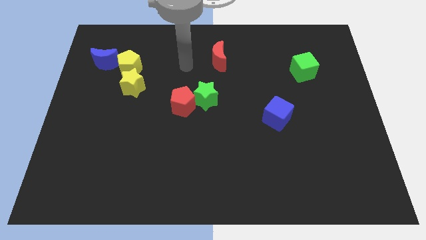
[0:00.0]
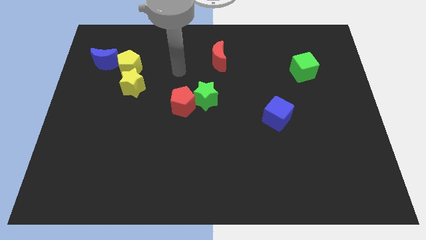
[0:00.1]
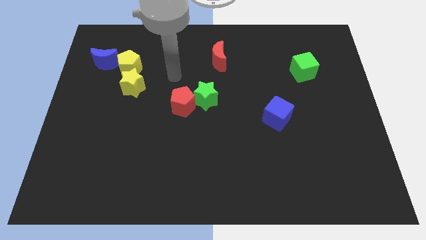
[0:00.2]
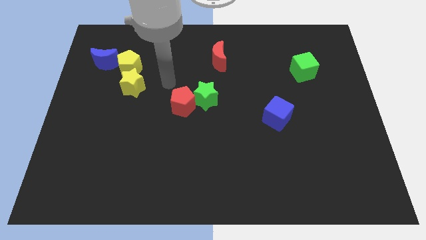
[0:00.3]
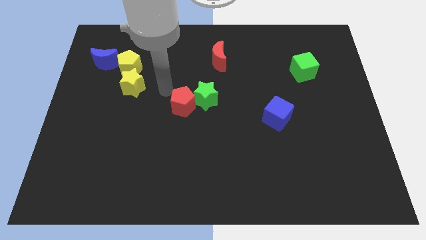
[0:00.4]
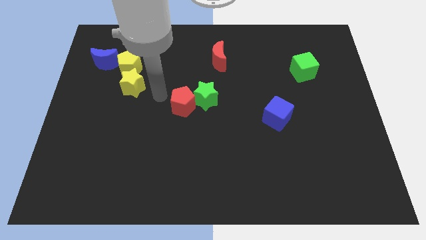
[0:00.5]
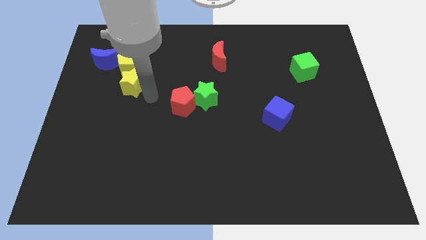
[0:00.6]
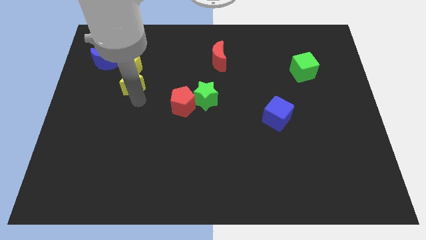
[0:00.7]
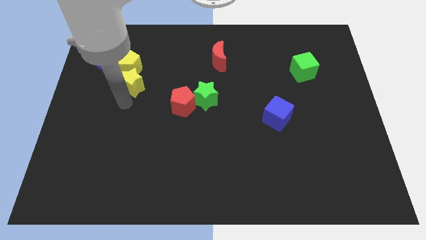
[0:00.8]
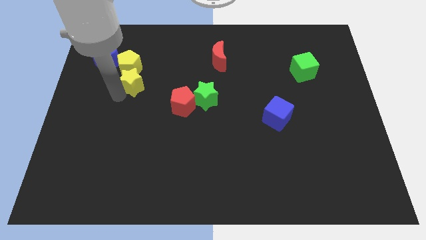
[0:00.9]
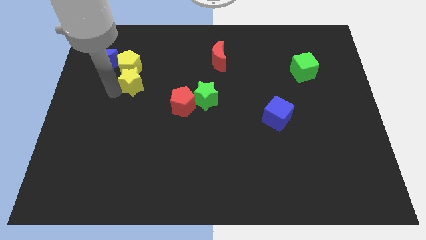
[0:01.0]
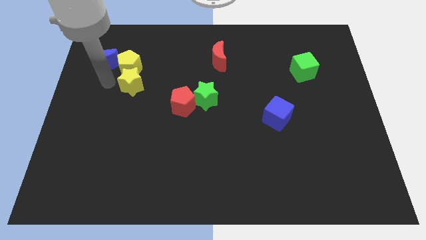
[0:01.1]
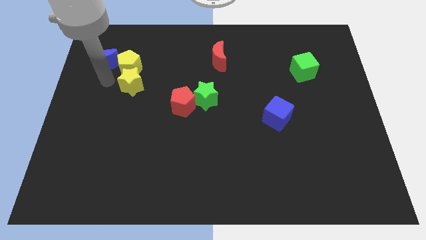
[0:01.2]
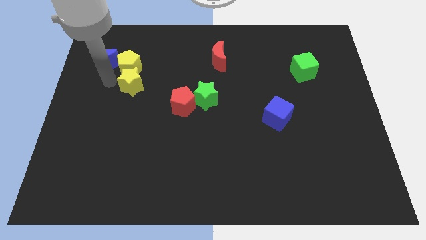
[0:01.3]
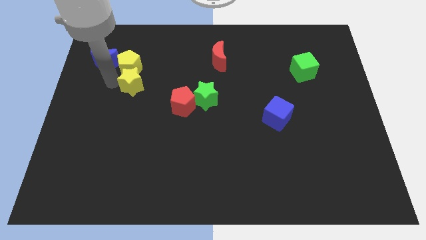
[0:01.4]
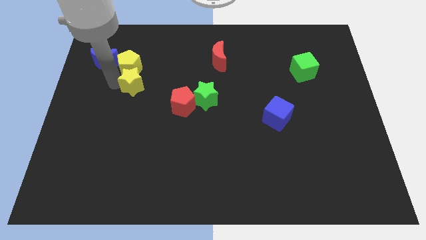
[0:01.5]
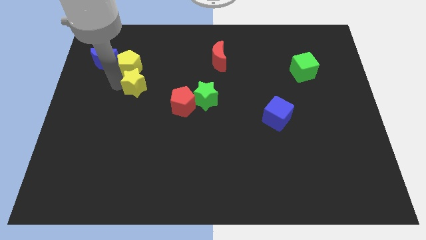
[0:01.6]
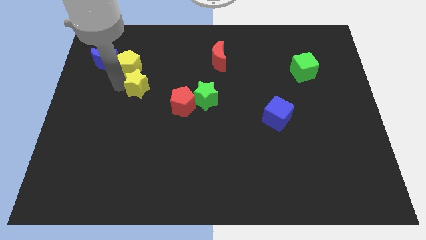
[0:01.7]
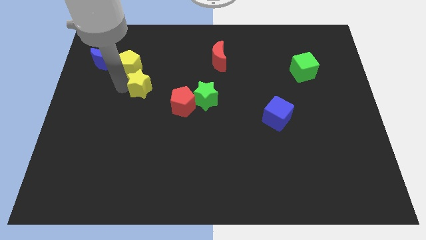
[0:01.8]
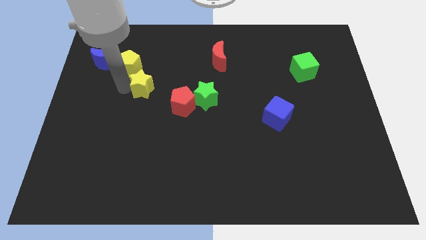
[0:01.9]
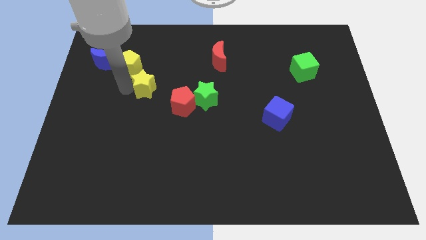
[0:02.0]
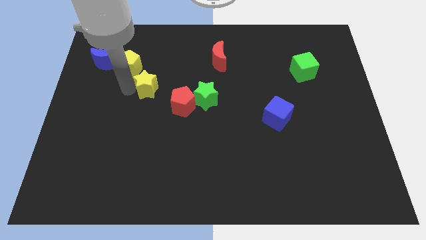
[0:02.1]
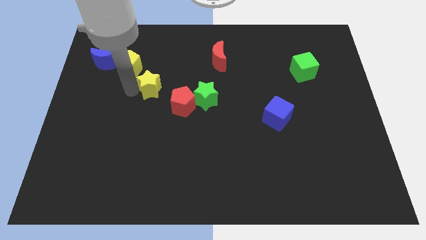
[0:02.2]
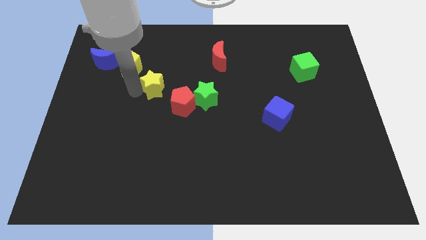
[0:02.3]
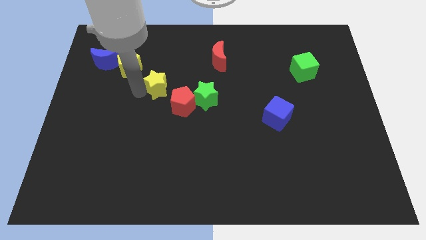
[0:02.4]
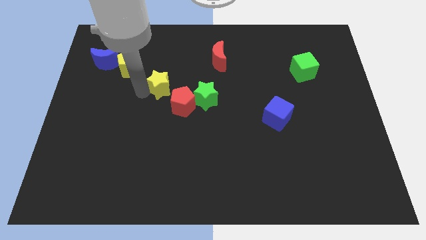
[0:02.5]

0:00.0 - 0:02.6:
move the yellow star right slightly

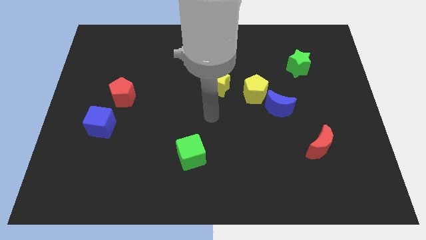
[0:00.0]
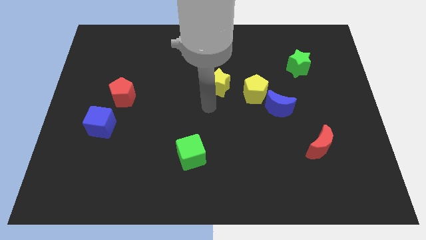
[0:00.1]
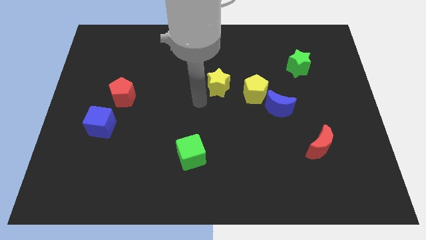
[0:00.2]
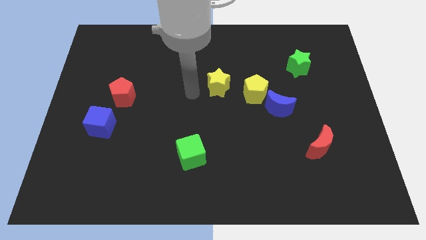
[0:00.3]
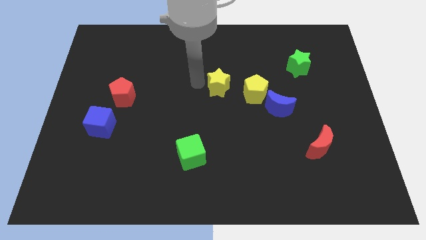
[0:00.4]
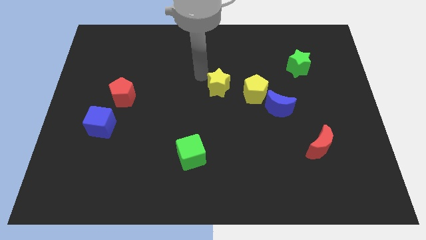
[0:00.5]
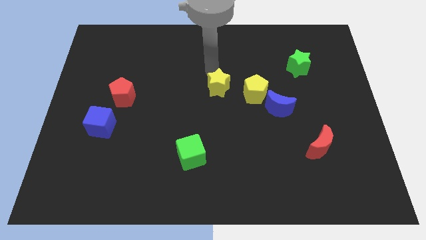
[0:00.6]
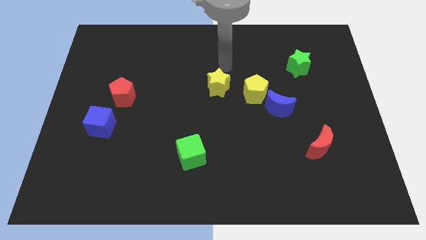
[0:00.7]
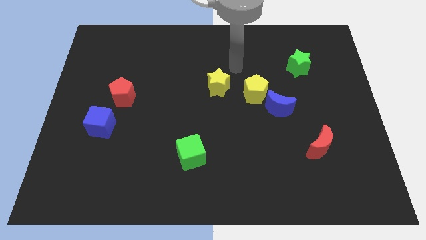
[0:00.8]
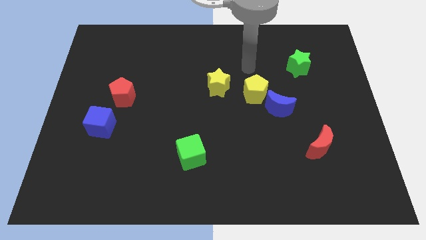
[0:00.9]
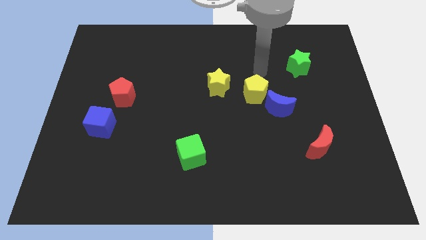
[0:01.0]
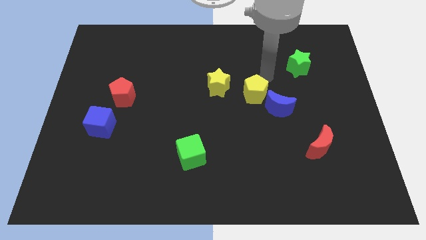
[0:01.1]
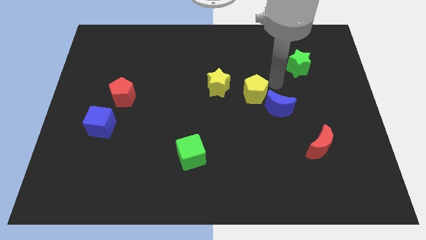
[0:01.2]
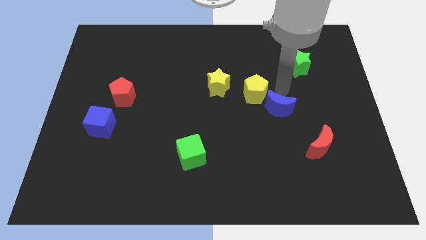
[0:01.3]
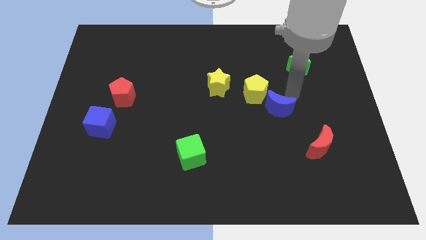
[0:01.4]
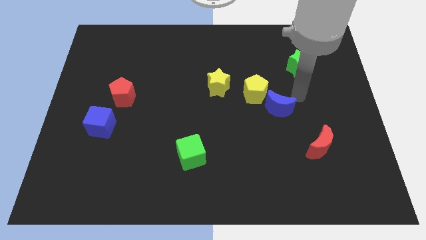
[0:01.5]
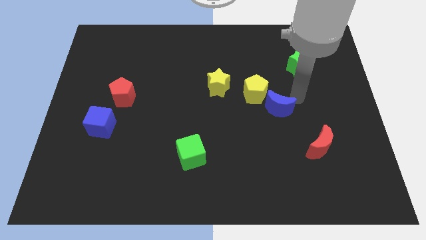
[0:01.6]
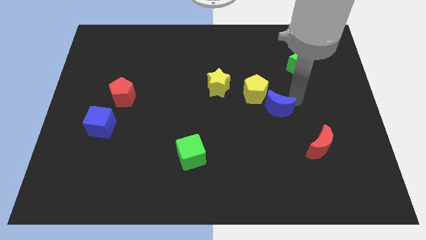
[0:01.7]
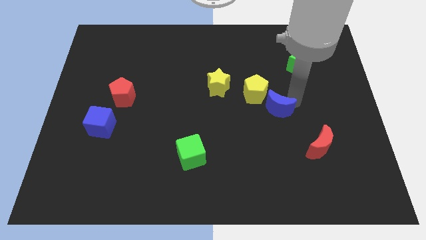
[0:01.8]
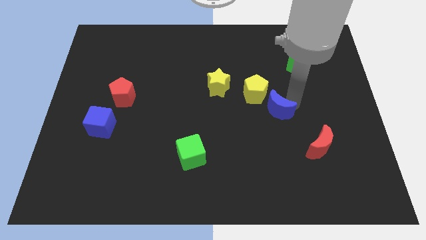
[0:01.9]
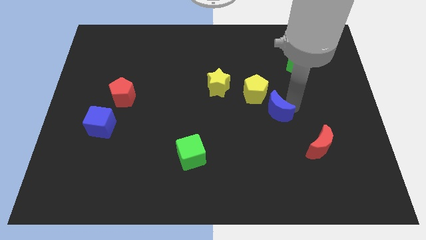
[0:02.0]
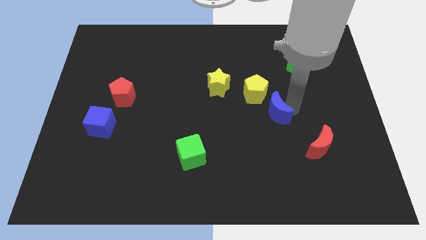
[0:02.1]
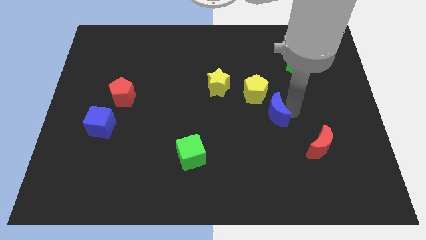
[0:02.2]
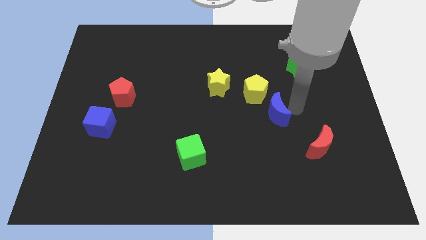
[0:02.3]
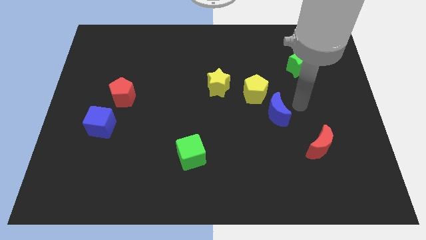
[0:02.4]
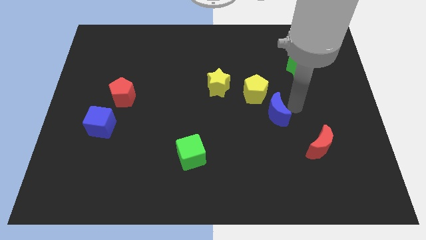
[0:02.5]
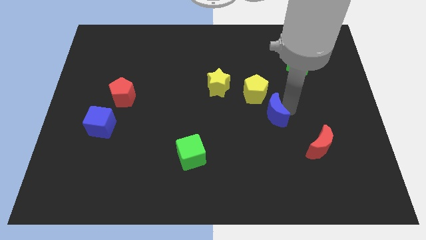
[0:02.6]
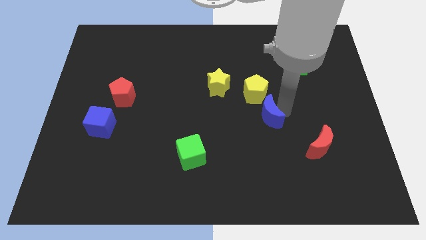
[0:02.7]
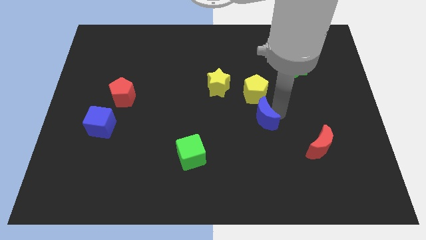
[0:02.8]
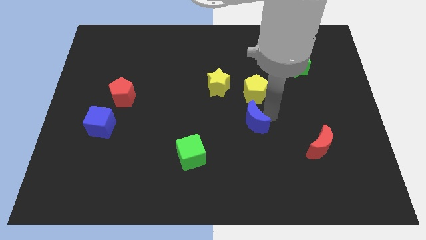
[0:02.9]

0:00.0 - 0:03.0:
slightly move the blue moon down and then to the left

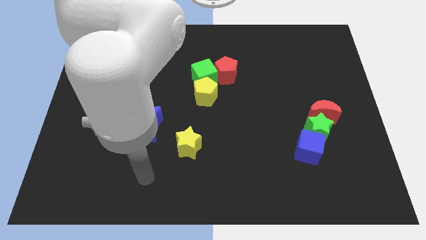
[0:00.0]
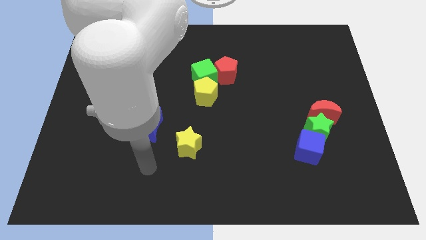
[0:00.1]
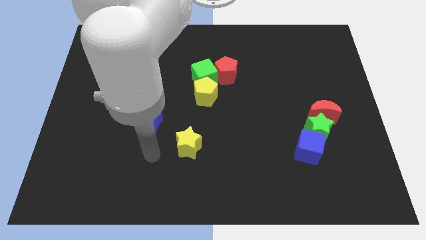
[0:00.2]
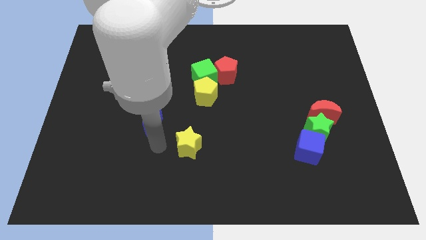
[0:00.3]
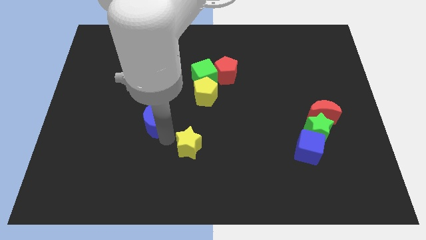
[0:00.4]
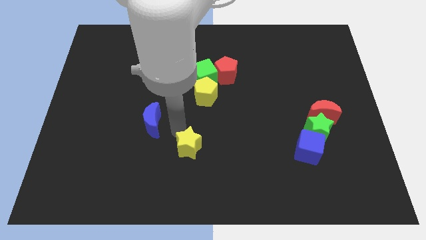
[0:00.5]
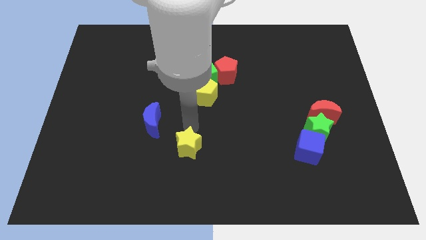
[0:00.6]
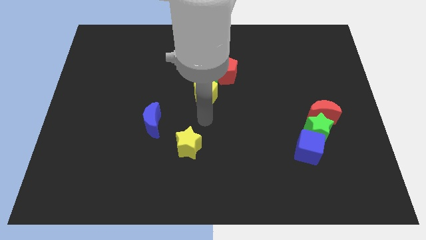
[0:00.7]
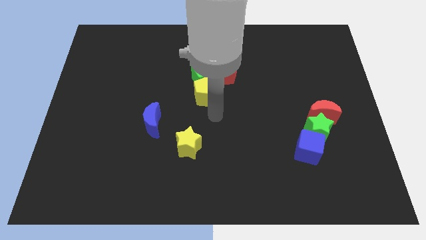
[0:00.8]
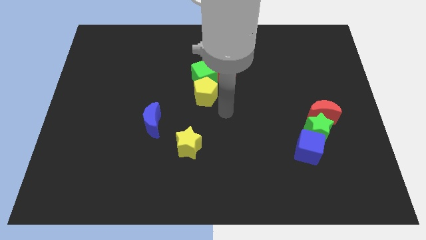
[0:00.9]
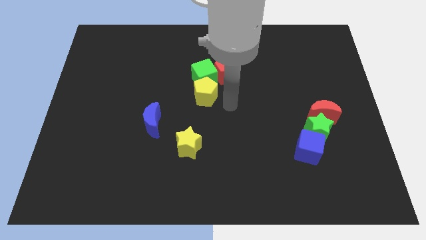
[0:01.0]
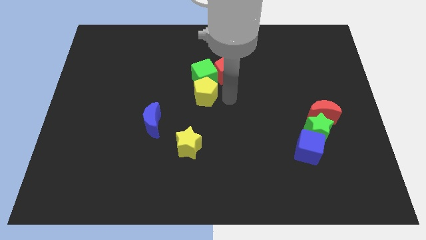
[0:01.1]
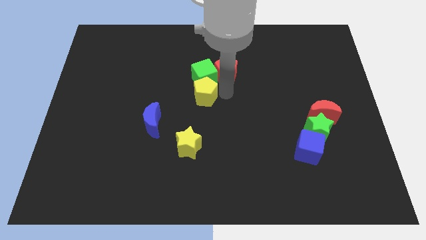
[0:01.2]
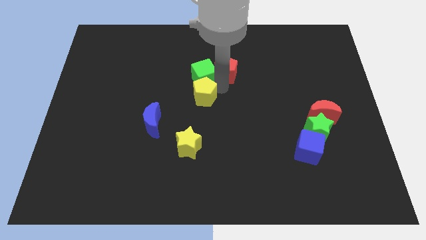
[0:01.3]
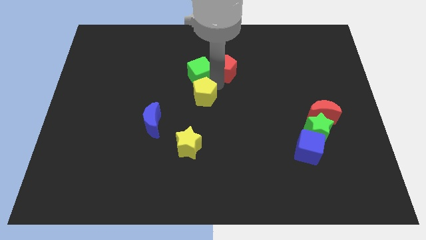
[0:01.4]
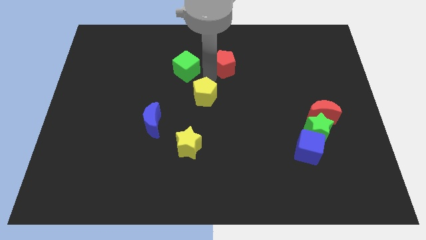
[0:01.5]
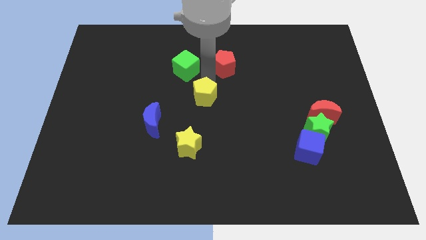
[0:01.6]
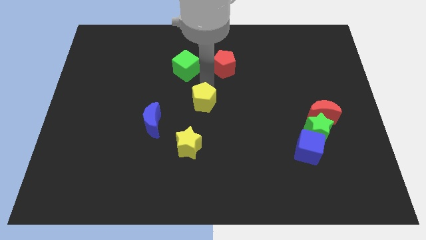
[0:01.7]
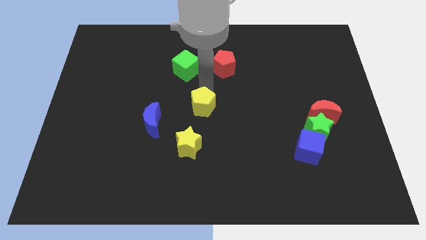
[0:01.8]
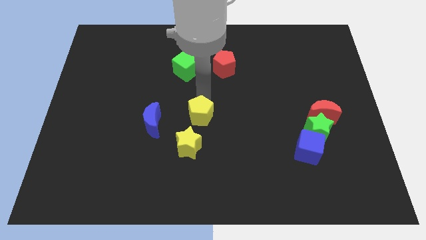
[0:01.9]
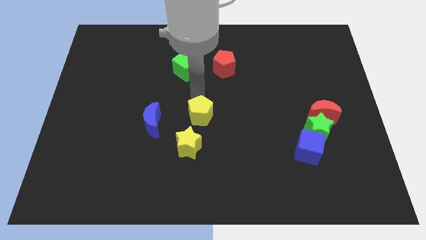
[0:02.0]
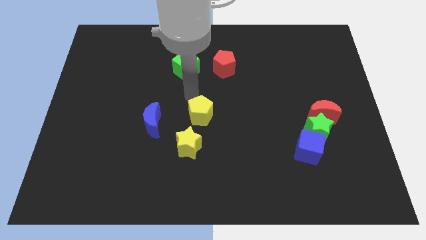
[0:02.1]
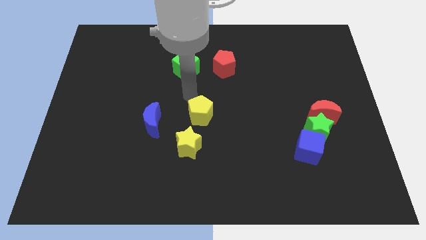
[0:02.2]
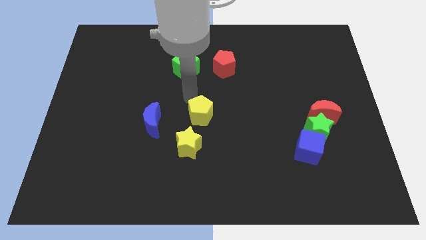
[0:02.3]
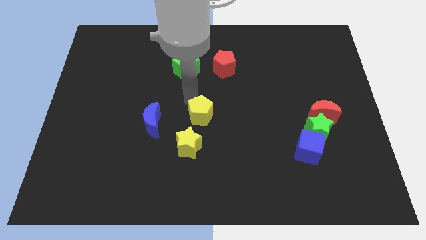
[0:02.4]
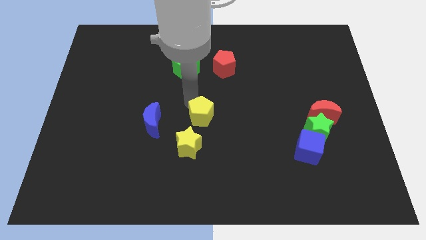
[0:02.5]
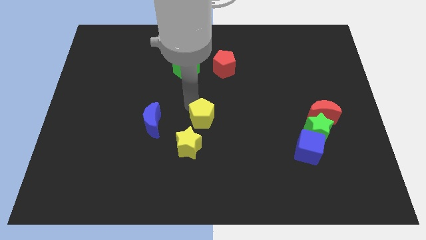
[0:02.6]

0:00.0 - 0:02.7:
push the yellow pentagon down a bit
